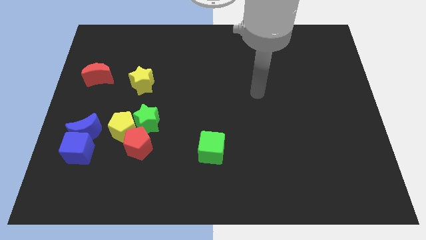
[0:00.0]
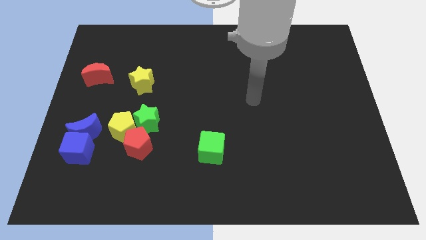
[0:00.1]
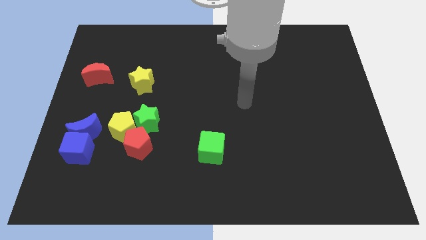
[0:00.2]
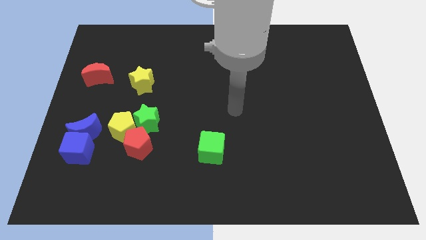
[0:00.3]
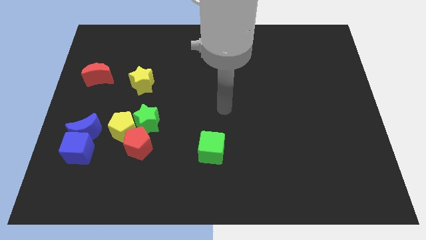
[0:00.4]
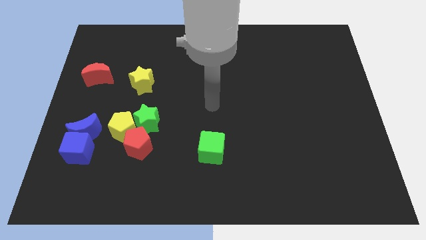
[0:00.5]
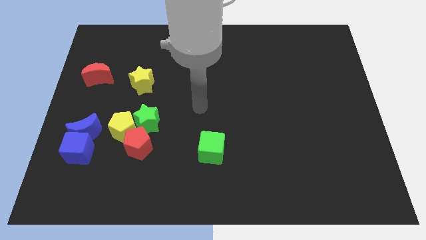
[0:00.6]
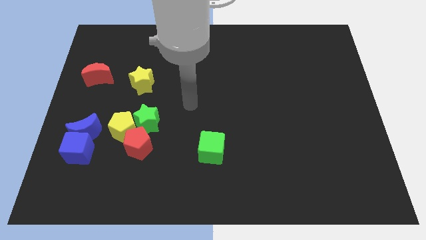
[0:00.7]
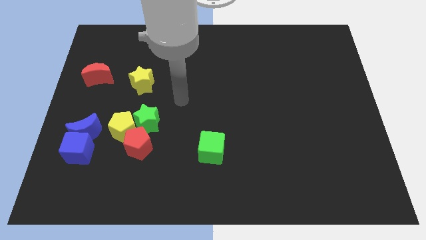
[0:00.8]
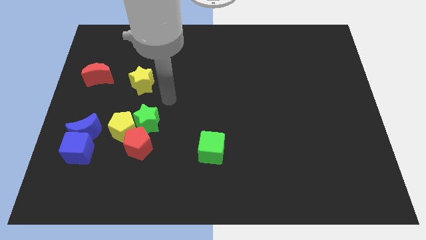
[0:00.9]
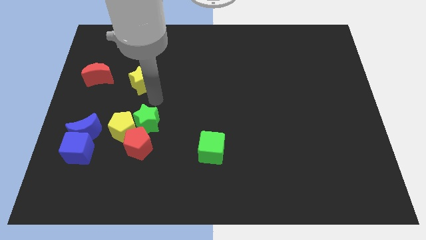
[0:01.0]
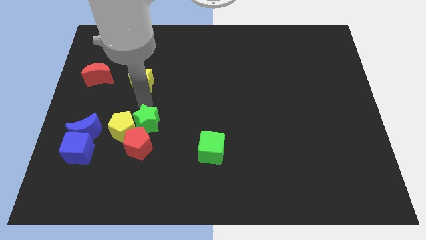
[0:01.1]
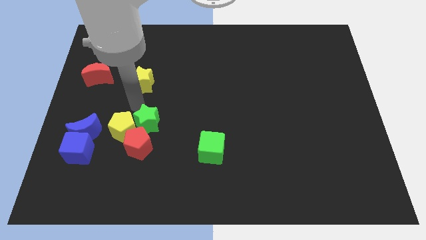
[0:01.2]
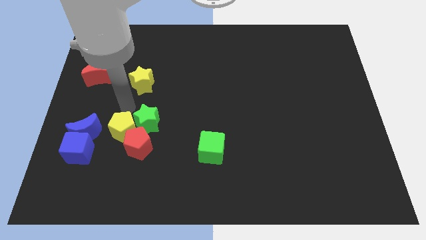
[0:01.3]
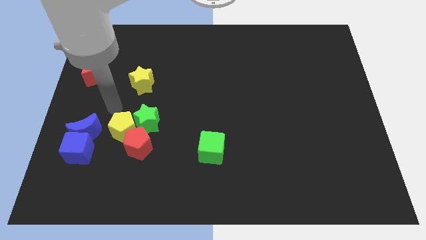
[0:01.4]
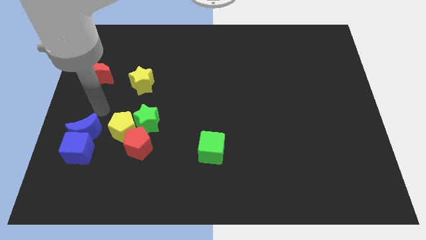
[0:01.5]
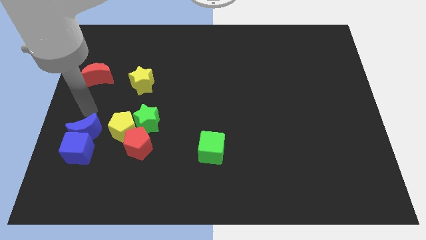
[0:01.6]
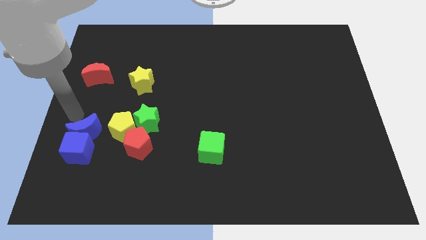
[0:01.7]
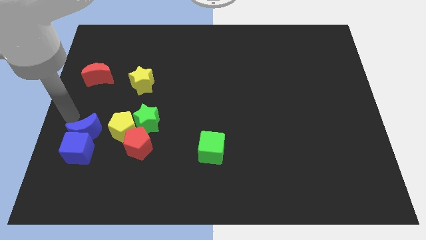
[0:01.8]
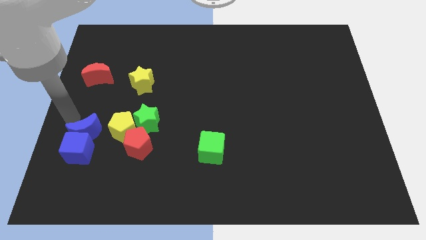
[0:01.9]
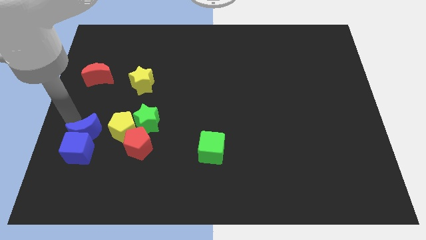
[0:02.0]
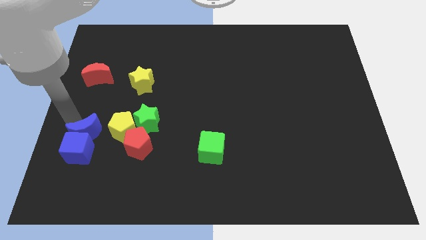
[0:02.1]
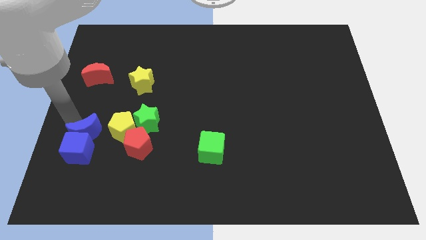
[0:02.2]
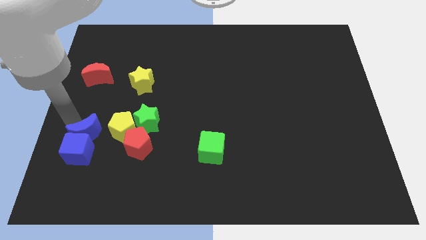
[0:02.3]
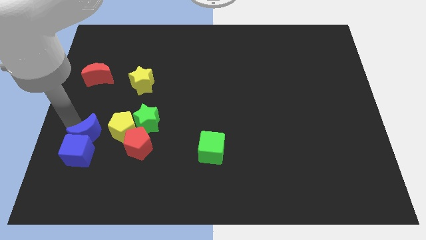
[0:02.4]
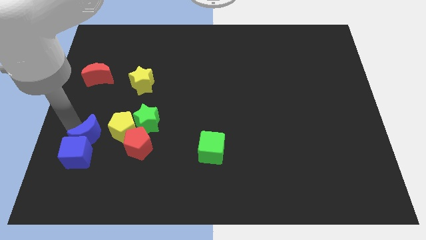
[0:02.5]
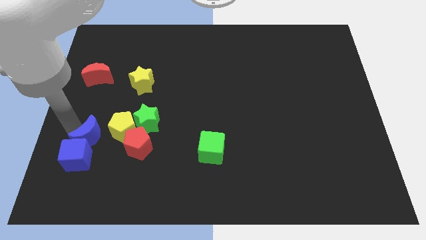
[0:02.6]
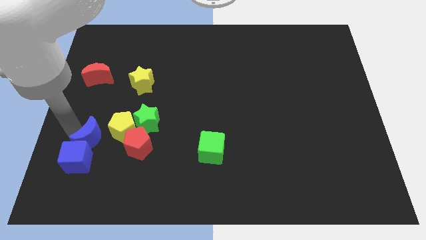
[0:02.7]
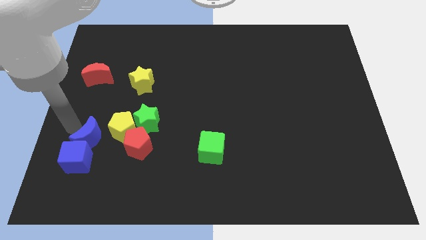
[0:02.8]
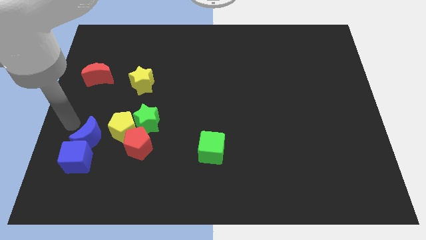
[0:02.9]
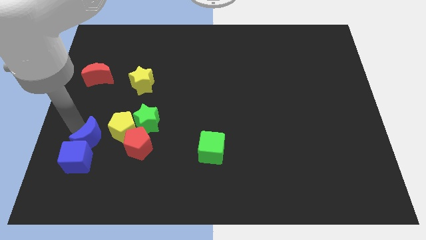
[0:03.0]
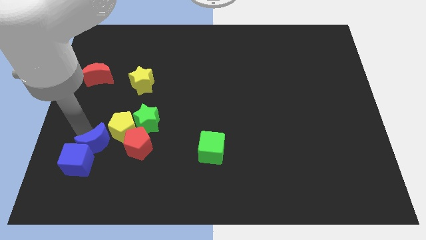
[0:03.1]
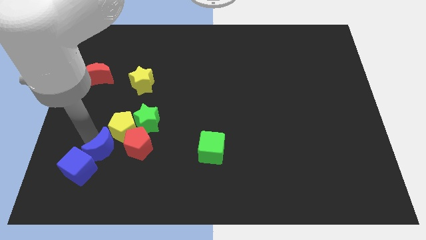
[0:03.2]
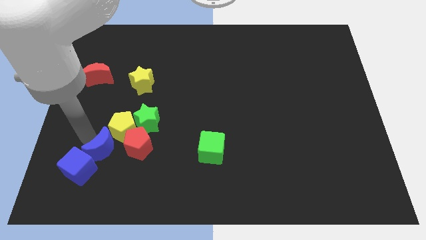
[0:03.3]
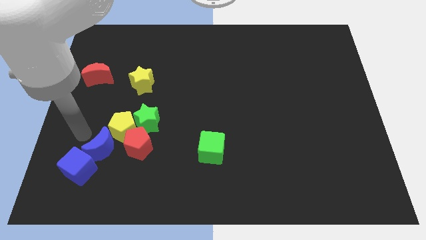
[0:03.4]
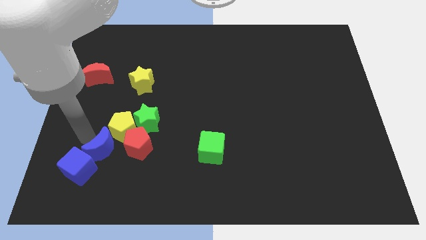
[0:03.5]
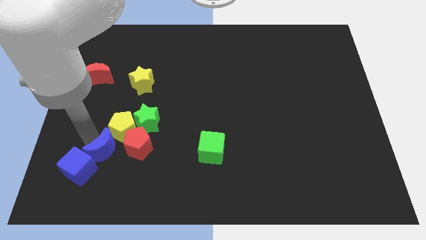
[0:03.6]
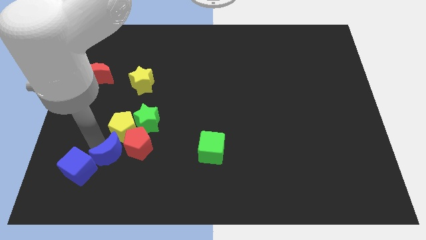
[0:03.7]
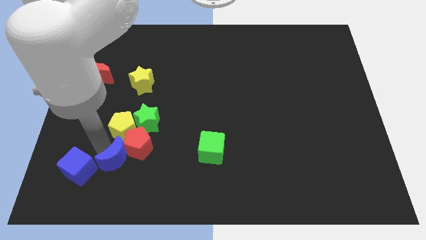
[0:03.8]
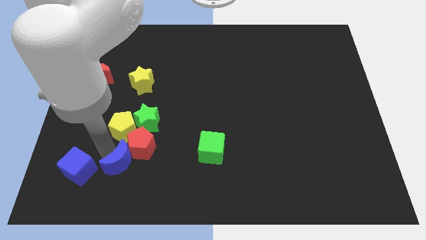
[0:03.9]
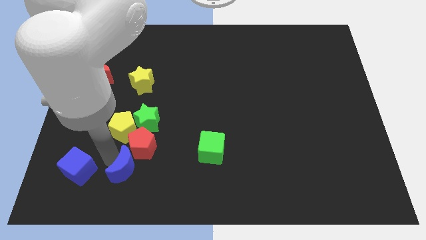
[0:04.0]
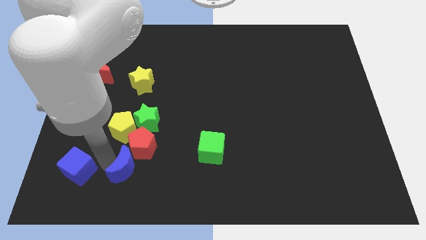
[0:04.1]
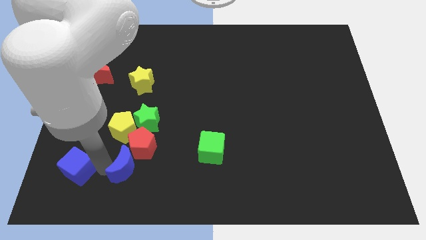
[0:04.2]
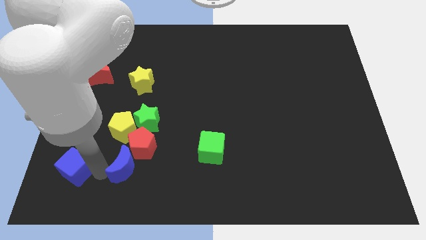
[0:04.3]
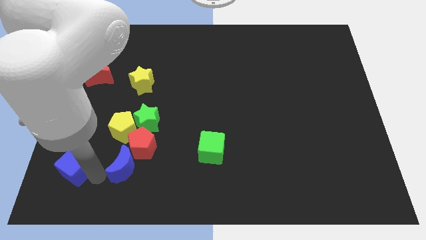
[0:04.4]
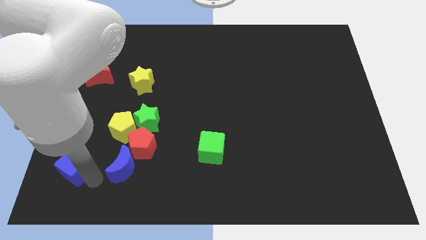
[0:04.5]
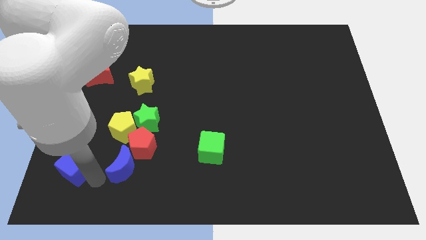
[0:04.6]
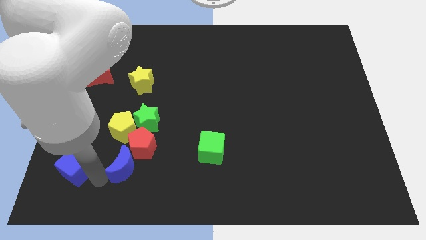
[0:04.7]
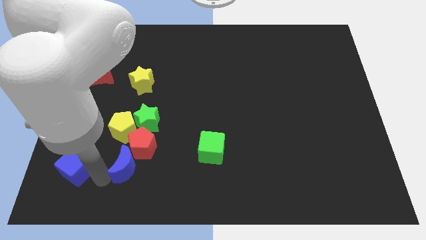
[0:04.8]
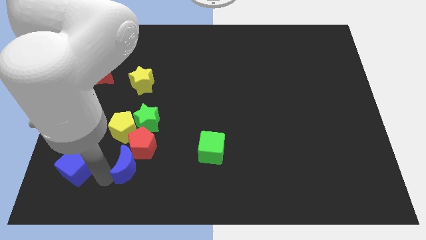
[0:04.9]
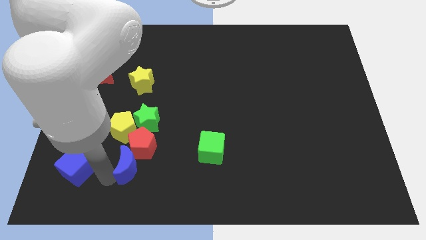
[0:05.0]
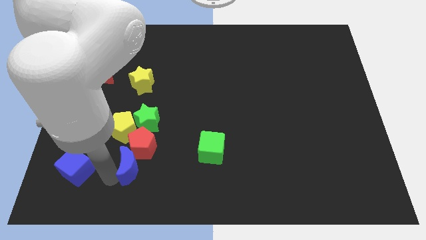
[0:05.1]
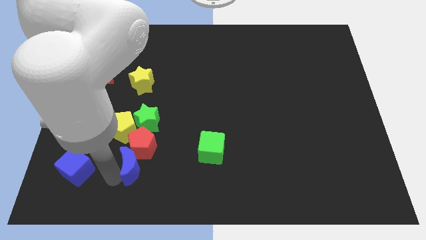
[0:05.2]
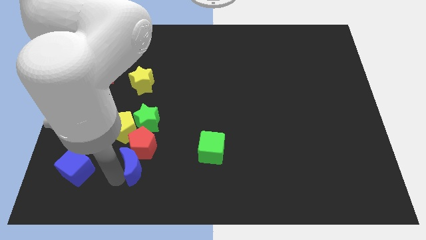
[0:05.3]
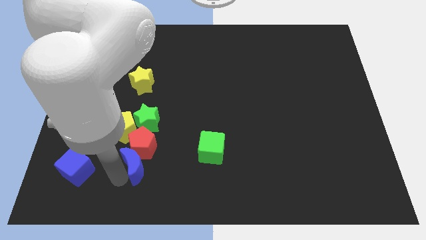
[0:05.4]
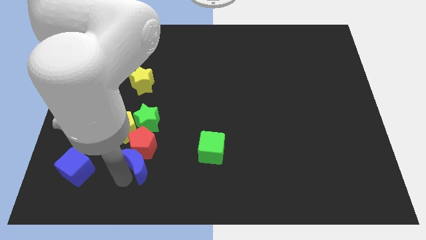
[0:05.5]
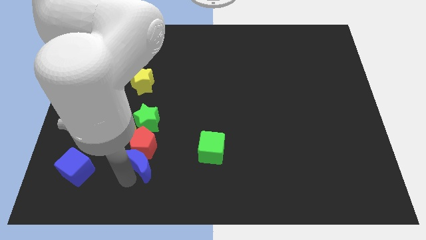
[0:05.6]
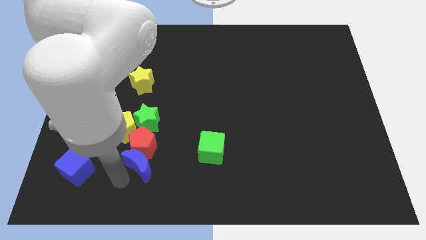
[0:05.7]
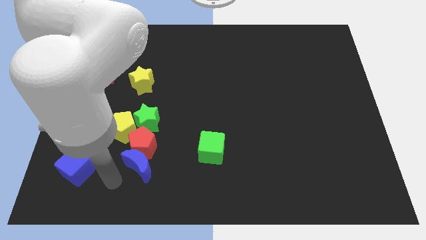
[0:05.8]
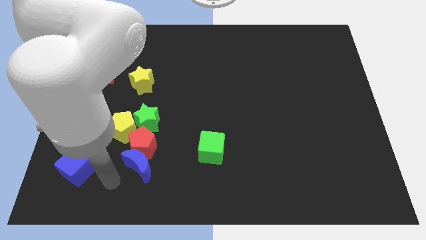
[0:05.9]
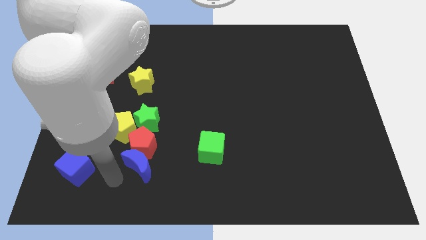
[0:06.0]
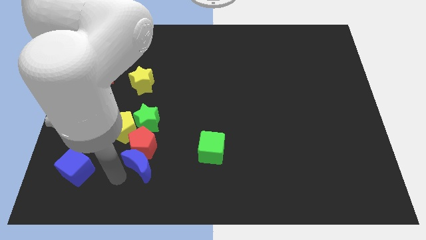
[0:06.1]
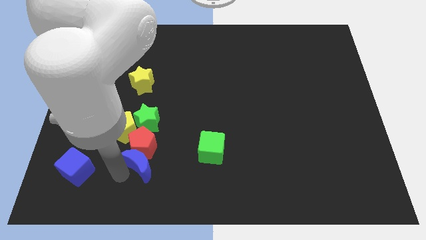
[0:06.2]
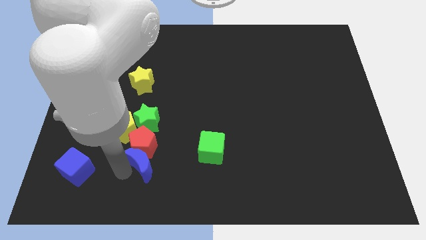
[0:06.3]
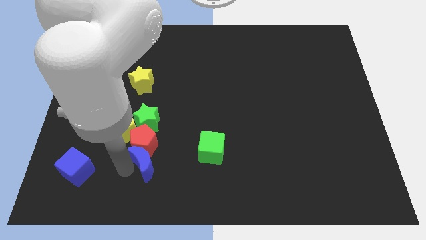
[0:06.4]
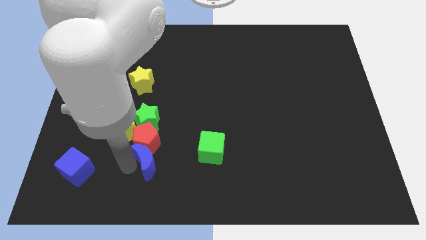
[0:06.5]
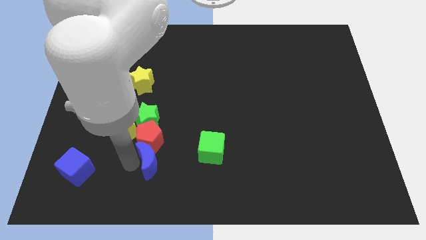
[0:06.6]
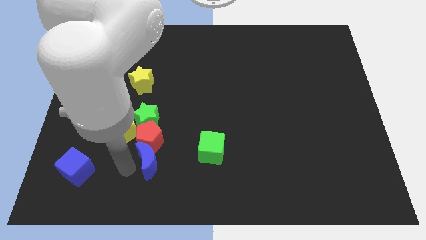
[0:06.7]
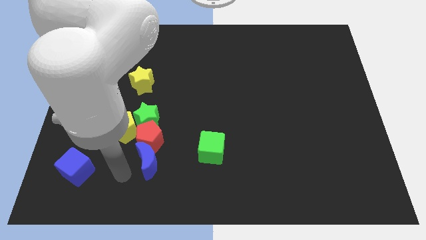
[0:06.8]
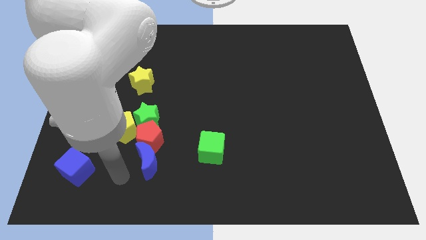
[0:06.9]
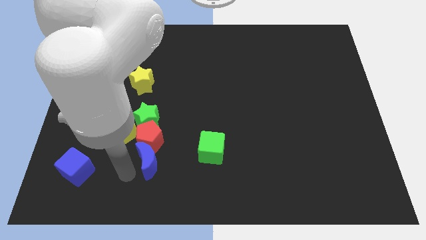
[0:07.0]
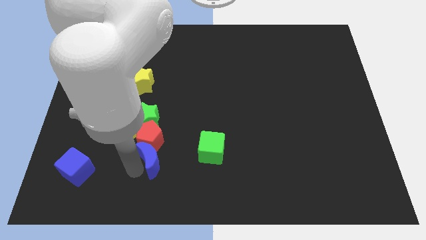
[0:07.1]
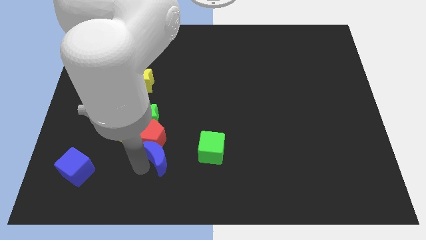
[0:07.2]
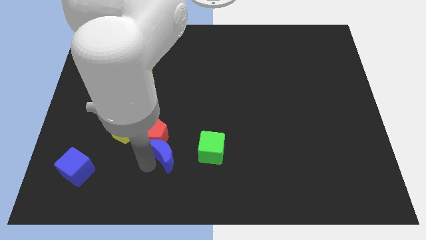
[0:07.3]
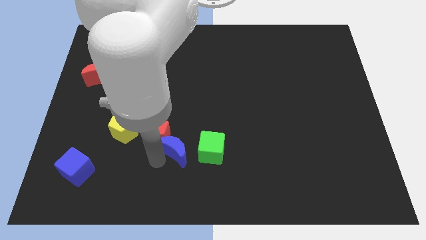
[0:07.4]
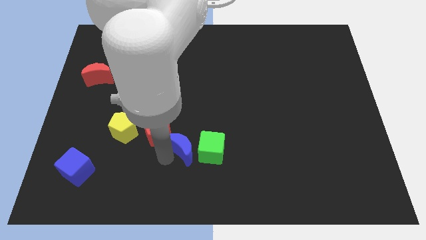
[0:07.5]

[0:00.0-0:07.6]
slide the blue moon right

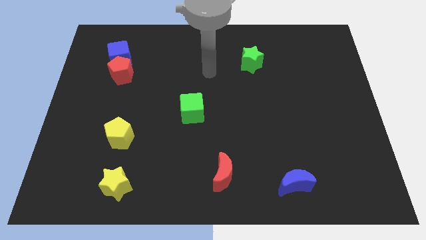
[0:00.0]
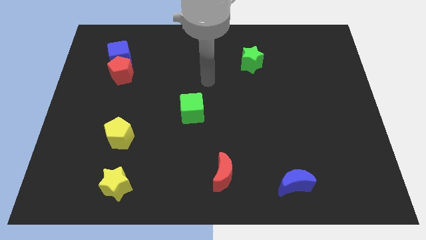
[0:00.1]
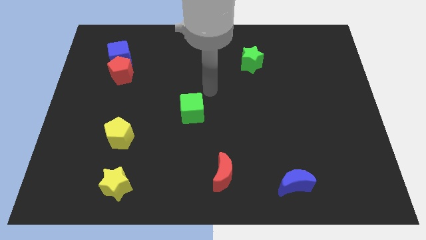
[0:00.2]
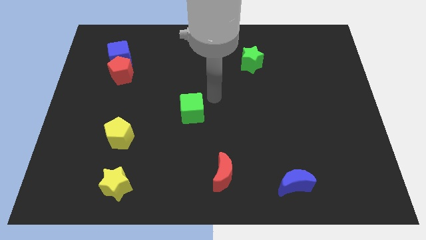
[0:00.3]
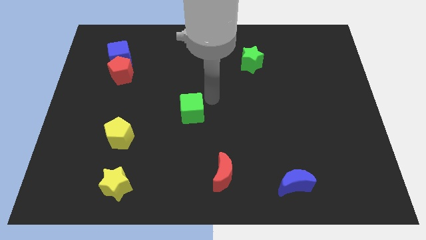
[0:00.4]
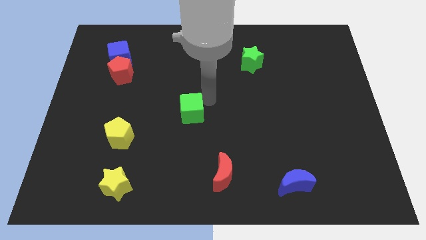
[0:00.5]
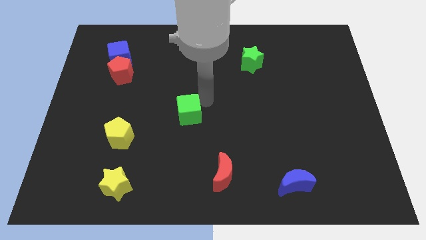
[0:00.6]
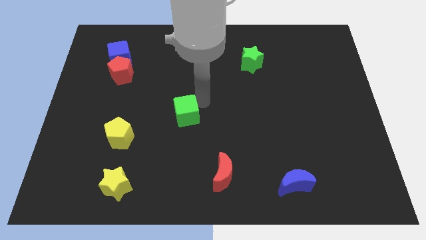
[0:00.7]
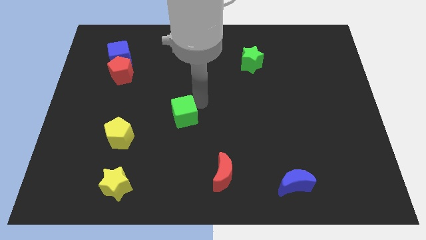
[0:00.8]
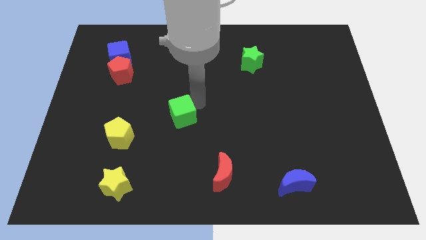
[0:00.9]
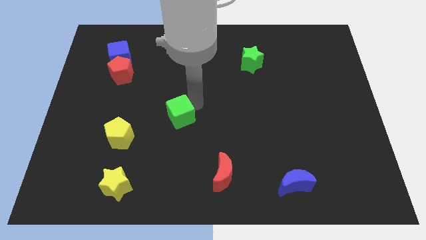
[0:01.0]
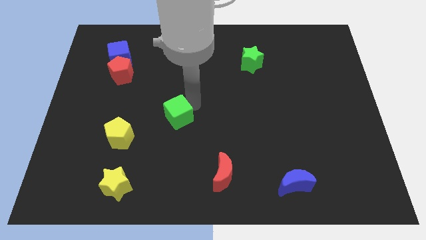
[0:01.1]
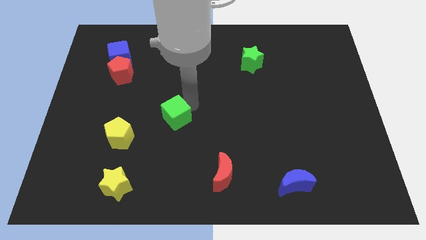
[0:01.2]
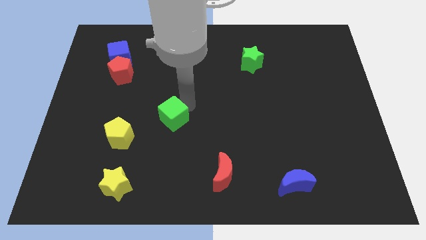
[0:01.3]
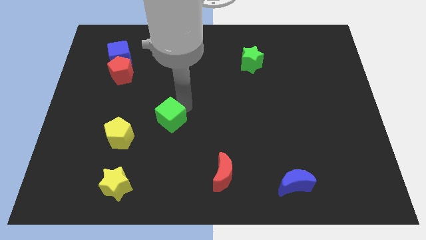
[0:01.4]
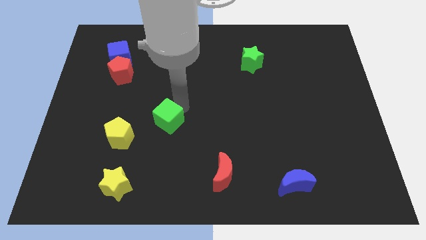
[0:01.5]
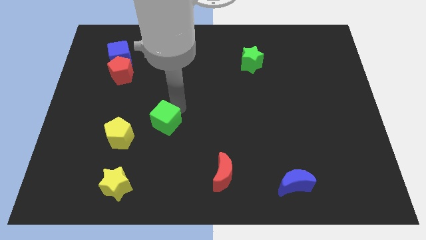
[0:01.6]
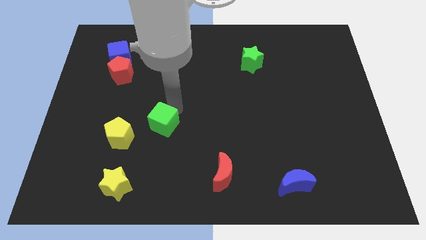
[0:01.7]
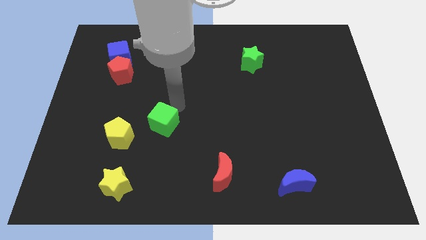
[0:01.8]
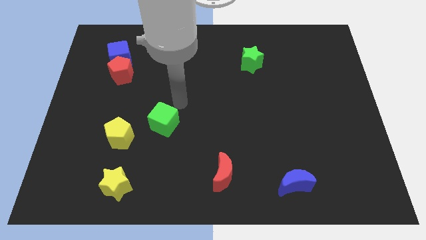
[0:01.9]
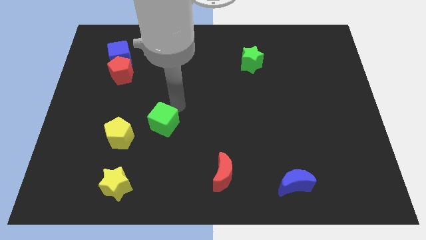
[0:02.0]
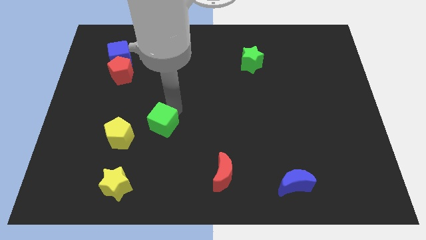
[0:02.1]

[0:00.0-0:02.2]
slide the green cube a little bit diagonally down and left
